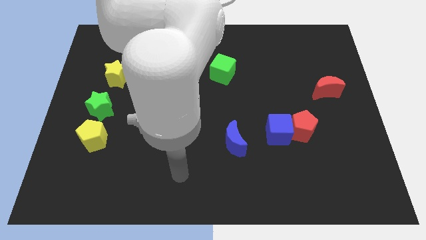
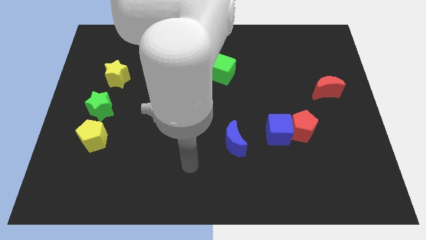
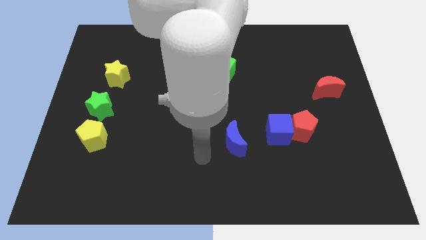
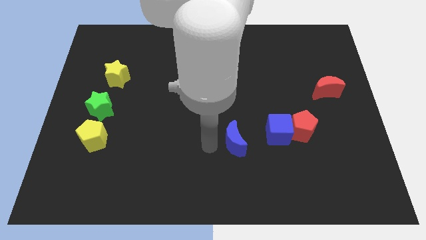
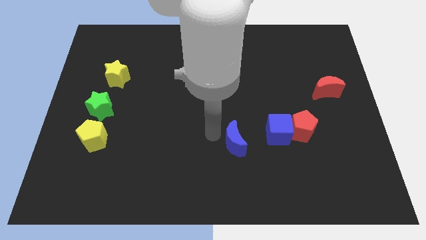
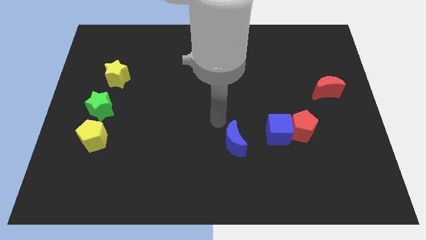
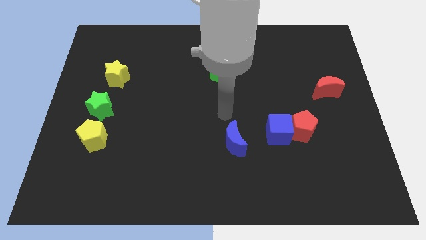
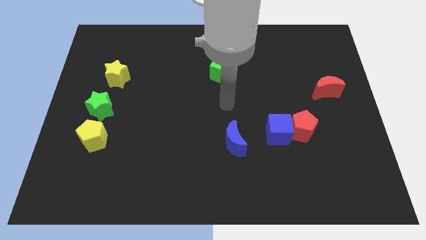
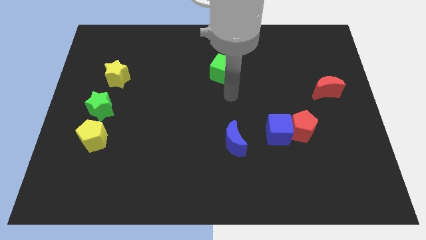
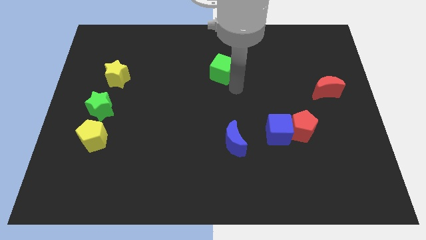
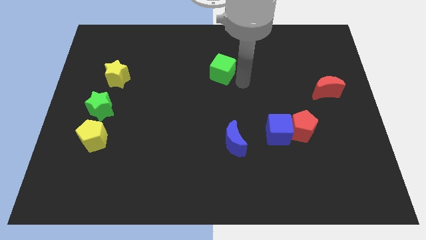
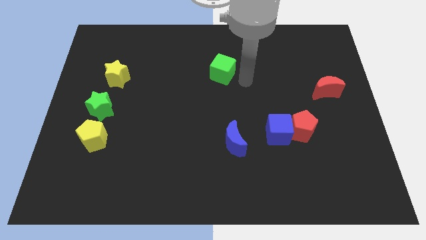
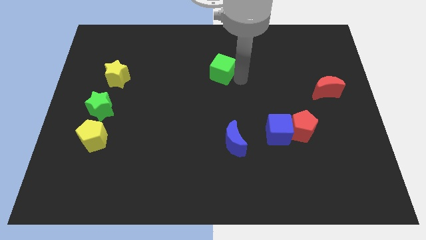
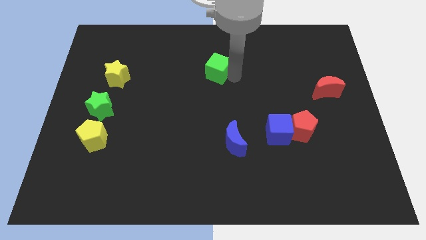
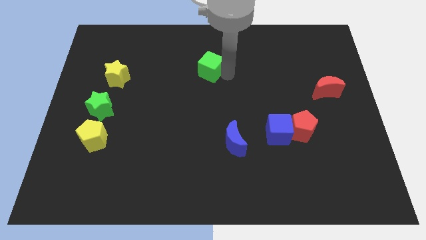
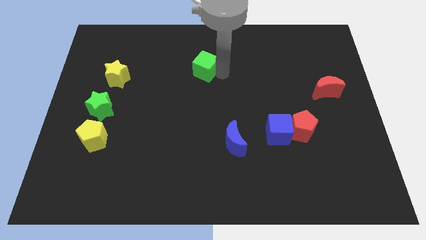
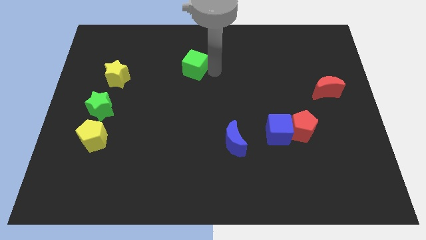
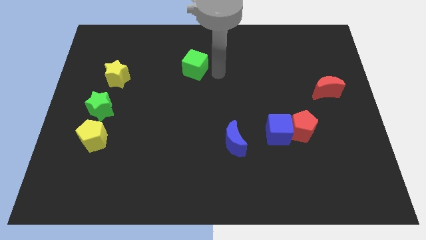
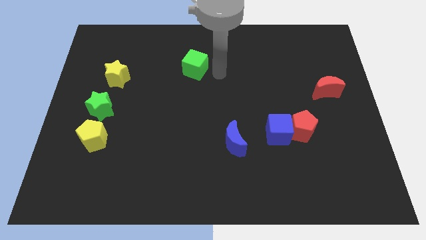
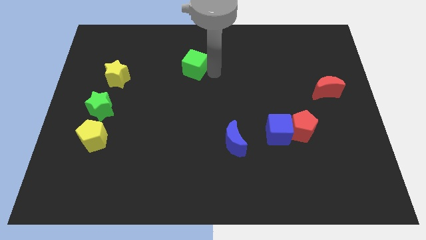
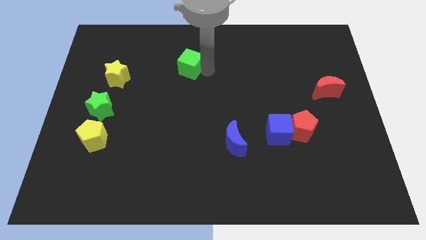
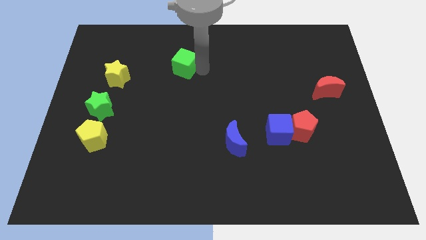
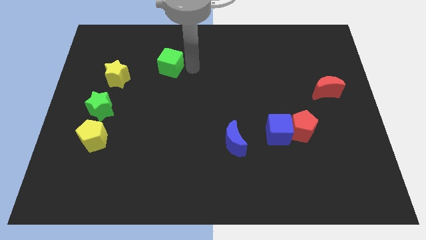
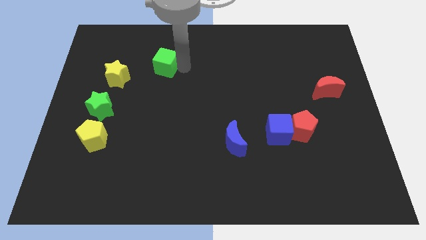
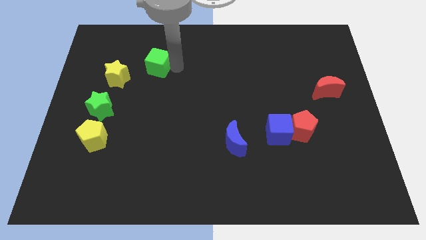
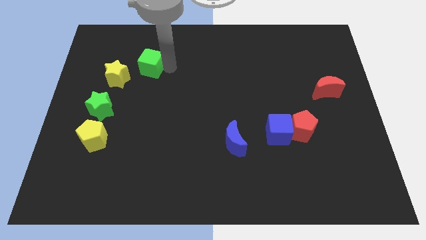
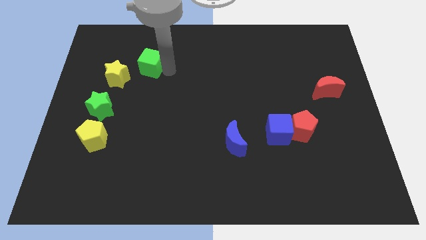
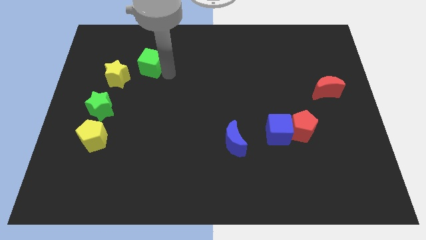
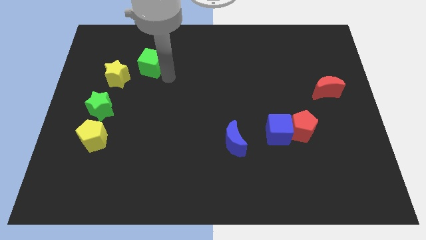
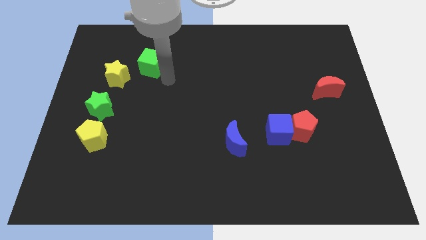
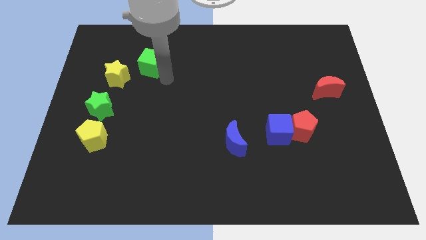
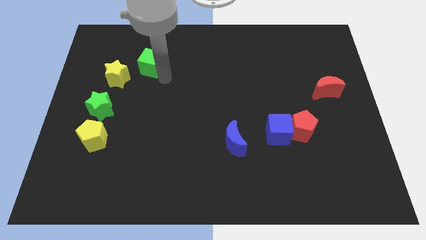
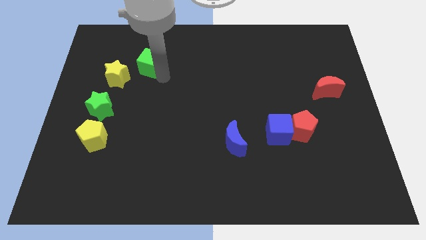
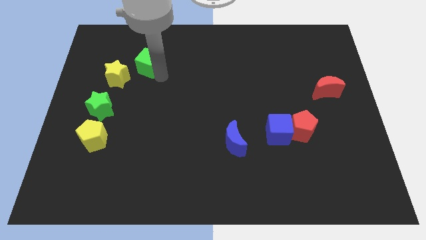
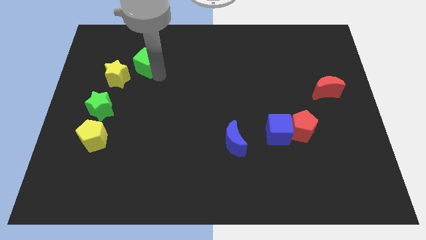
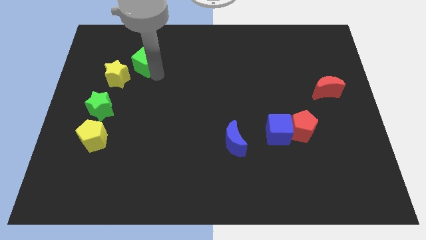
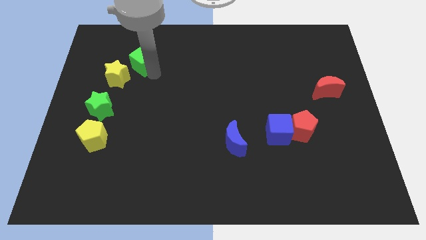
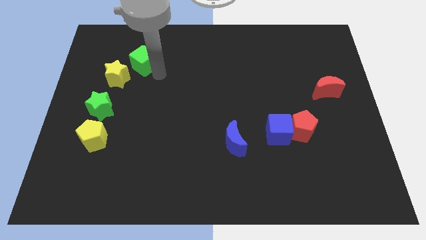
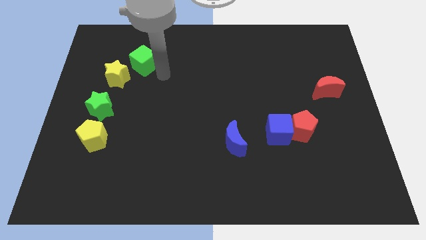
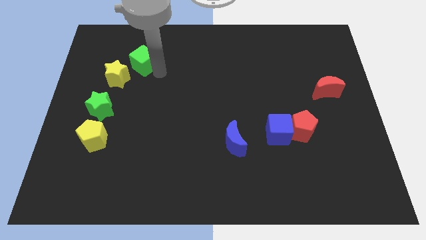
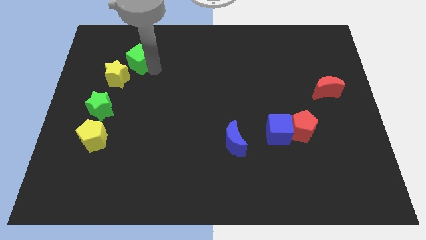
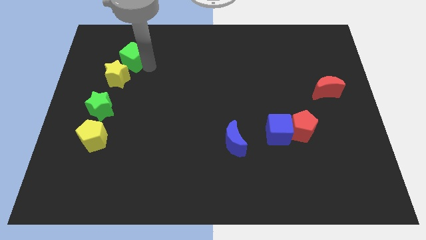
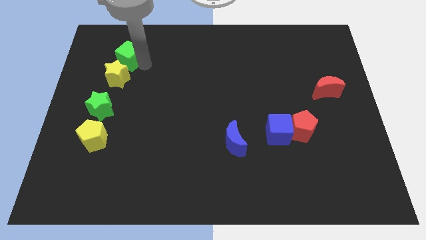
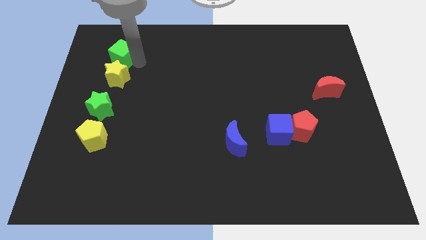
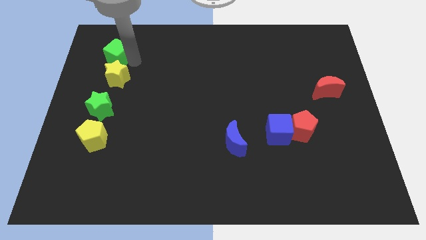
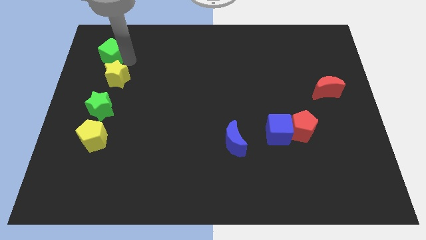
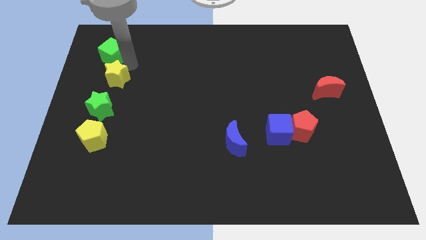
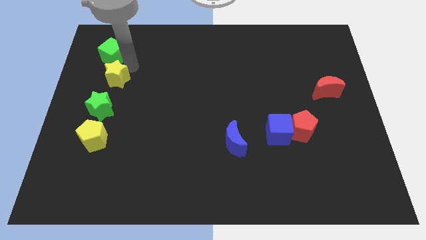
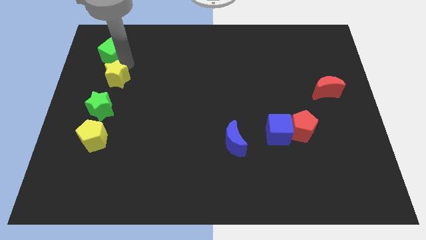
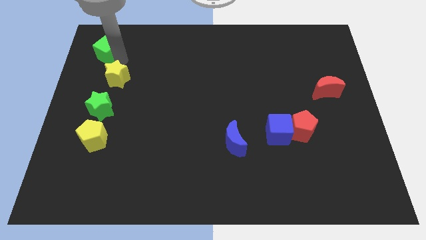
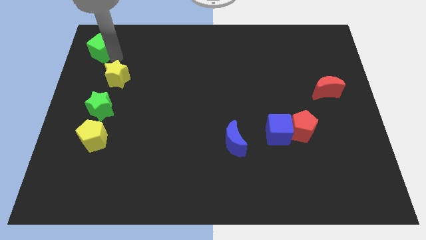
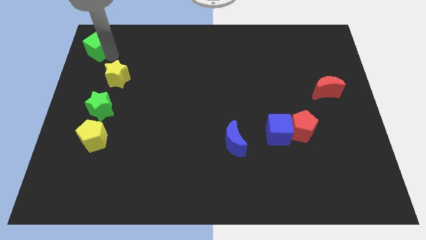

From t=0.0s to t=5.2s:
slide the green cube to the upper left corner

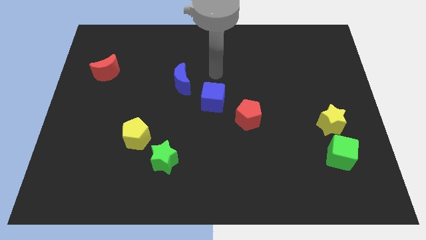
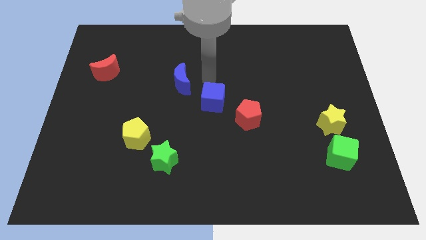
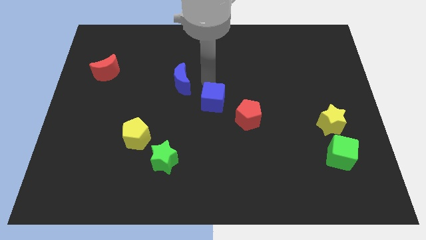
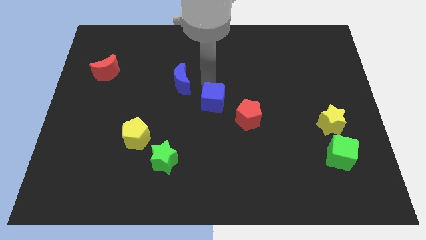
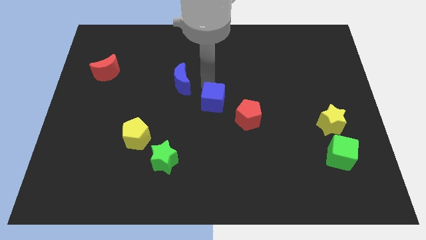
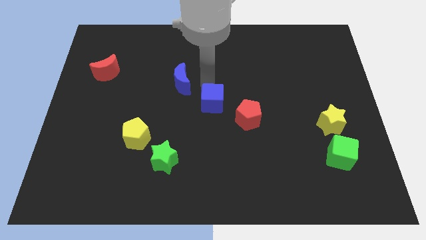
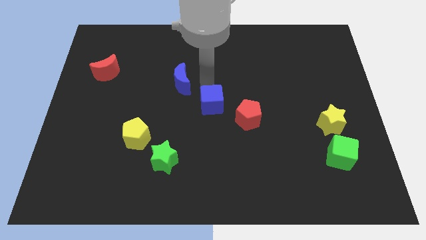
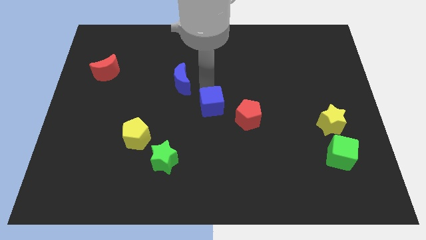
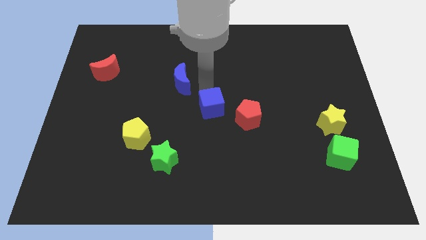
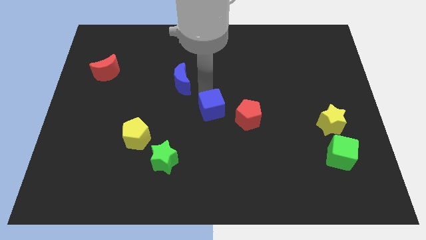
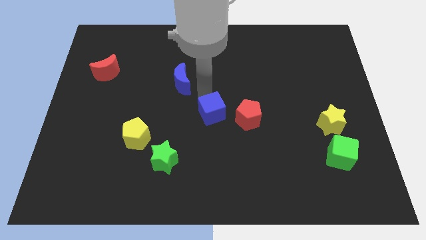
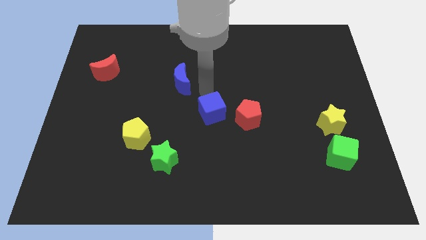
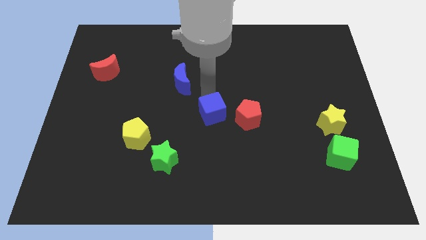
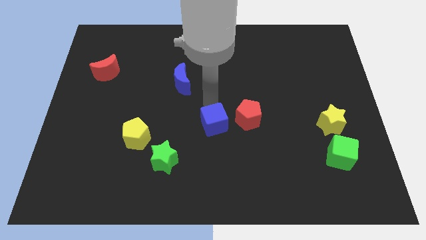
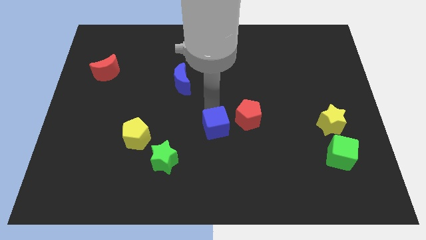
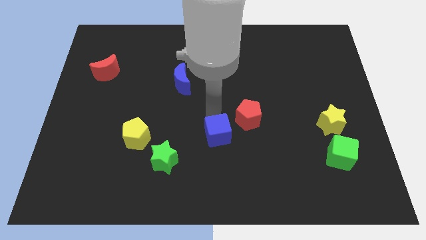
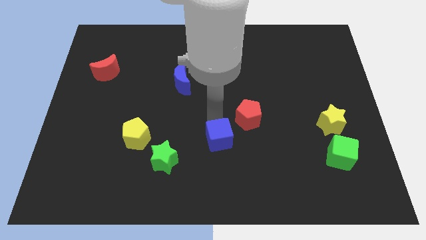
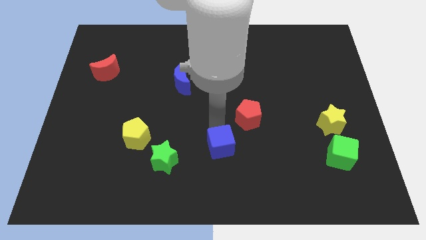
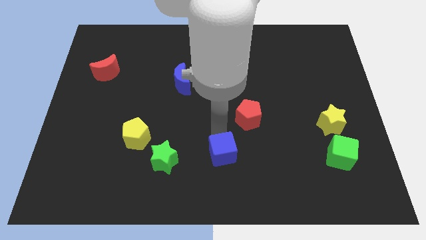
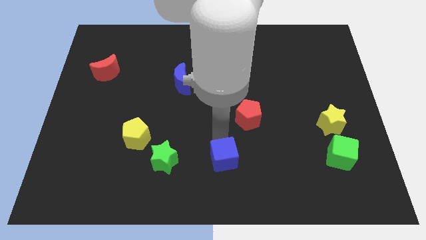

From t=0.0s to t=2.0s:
push the blue cube to the bottom side
